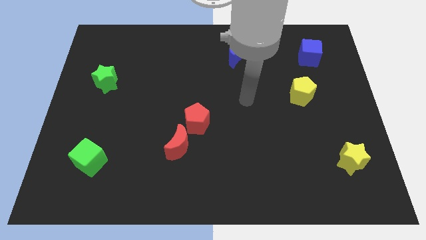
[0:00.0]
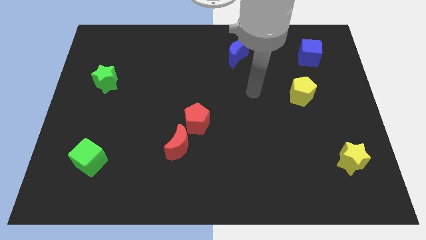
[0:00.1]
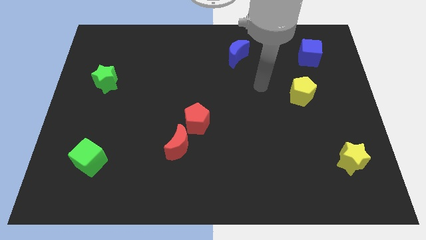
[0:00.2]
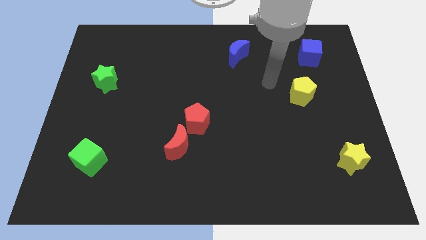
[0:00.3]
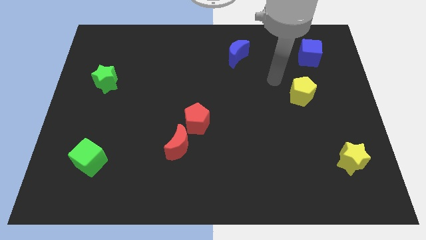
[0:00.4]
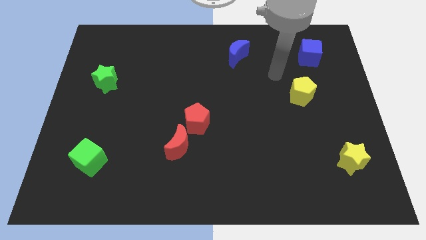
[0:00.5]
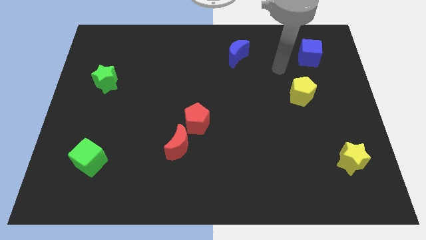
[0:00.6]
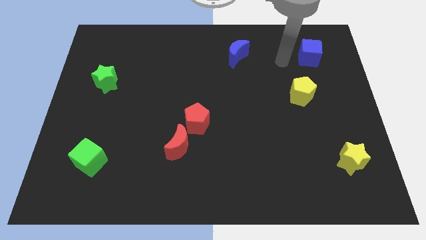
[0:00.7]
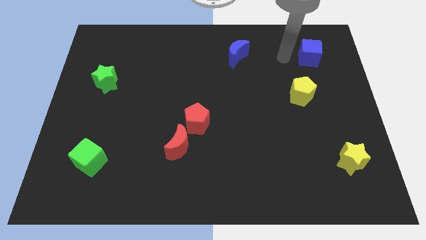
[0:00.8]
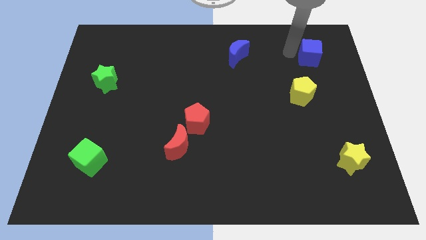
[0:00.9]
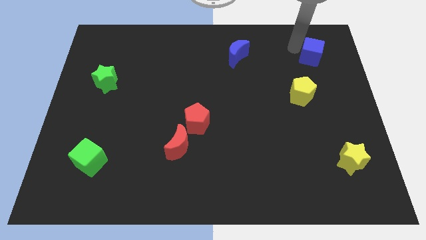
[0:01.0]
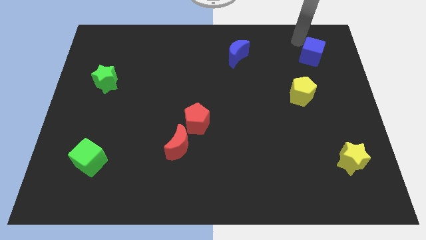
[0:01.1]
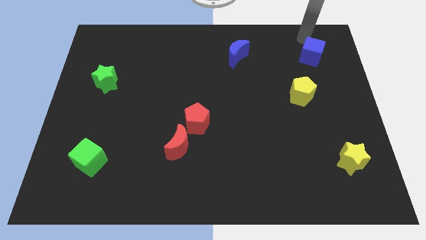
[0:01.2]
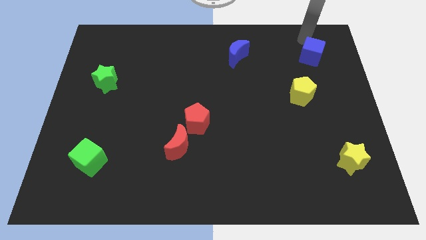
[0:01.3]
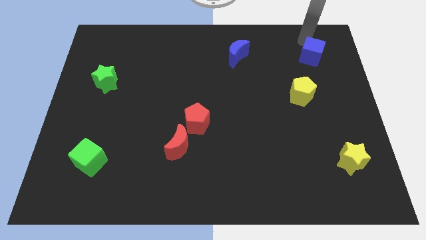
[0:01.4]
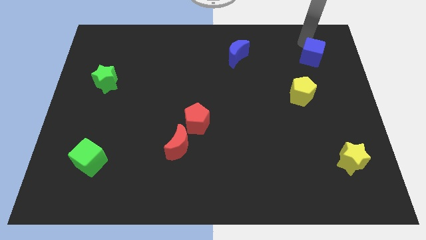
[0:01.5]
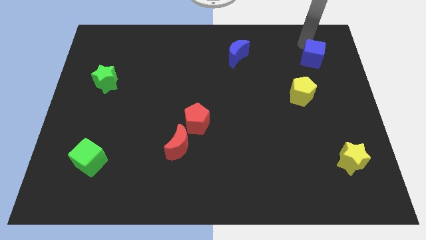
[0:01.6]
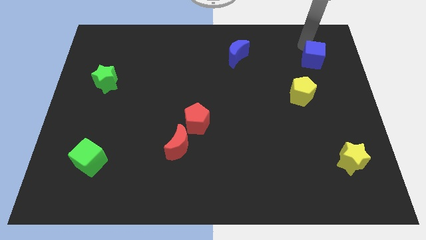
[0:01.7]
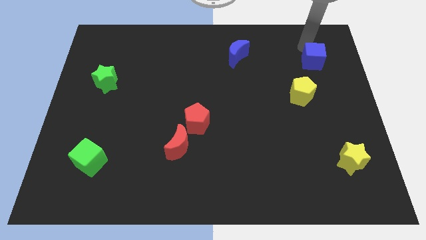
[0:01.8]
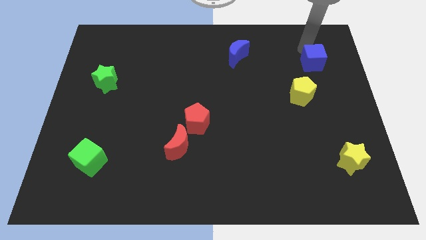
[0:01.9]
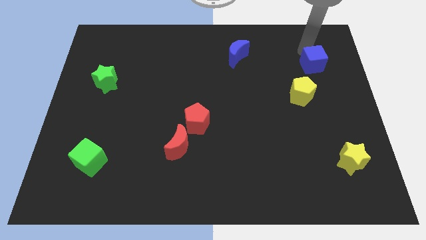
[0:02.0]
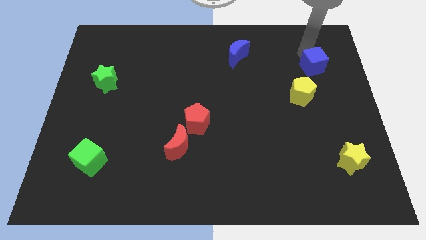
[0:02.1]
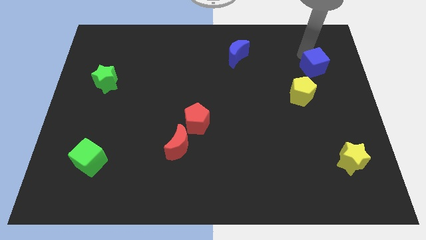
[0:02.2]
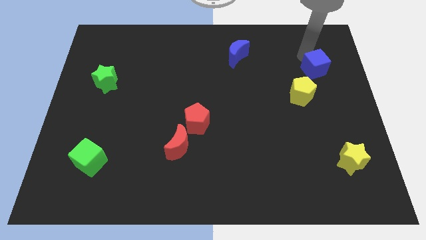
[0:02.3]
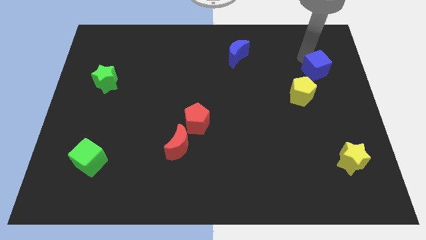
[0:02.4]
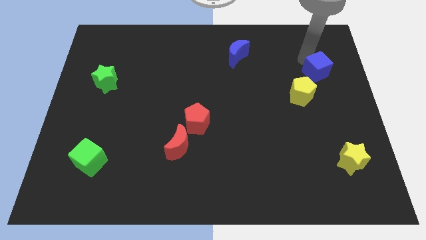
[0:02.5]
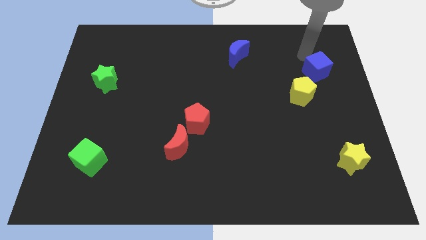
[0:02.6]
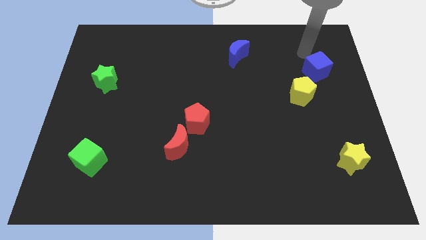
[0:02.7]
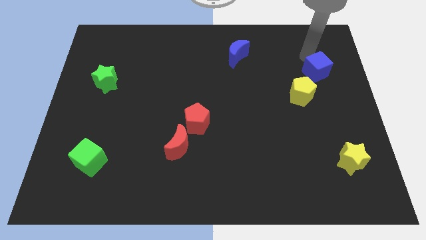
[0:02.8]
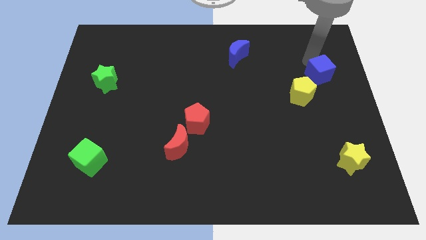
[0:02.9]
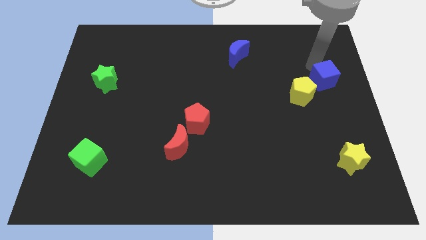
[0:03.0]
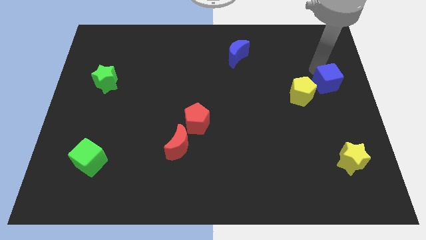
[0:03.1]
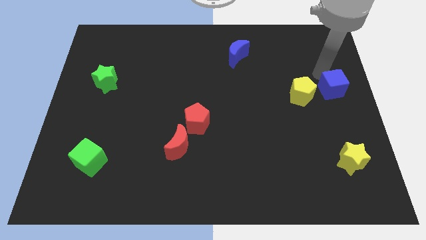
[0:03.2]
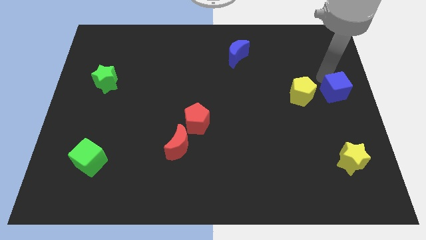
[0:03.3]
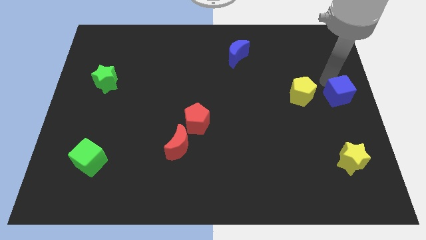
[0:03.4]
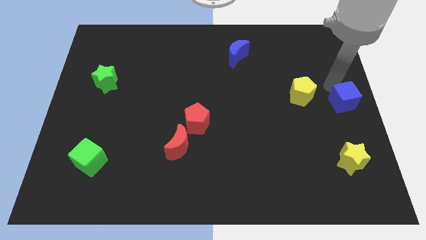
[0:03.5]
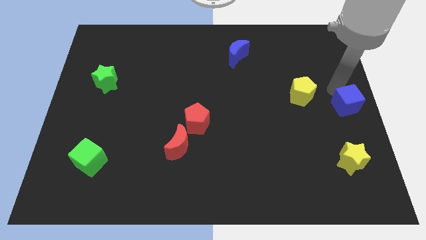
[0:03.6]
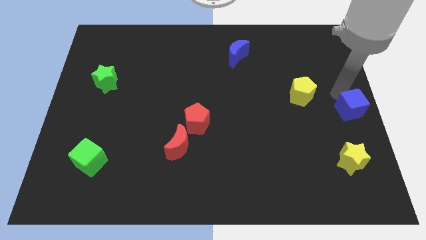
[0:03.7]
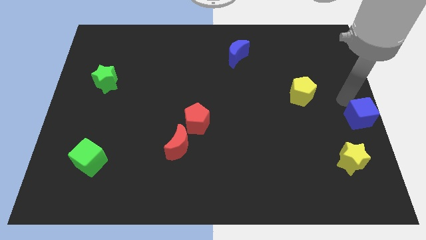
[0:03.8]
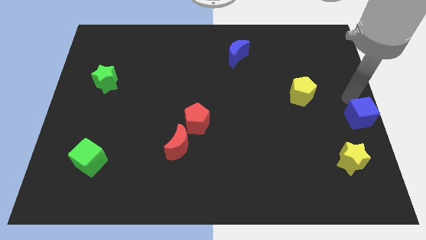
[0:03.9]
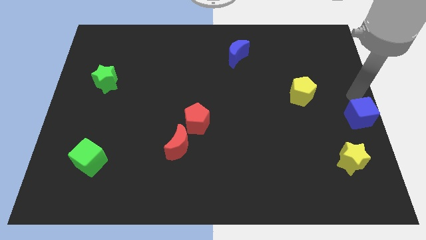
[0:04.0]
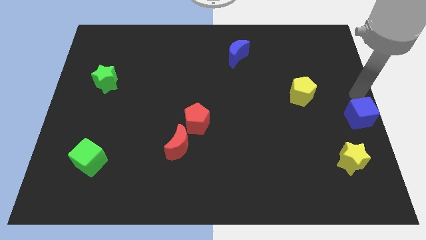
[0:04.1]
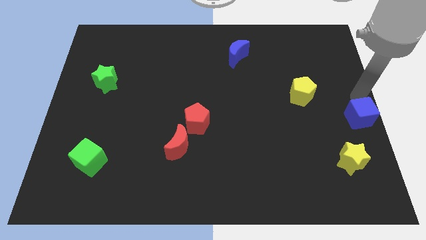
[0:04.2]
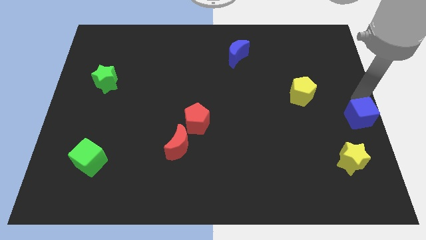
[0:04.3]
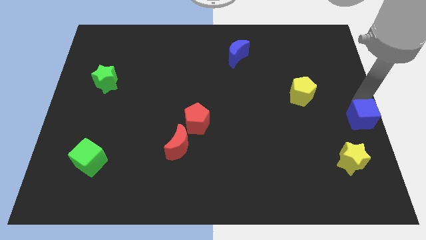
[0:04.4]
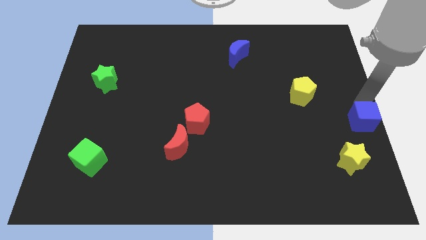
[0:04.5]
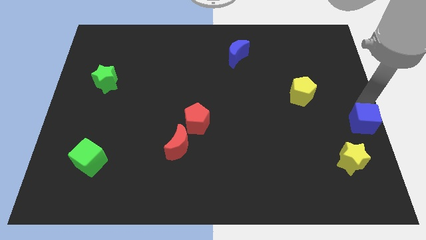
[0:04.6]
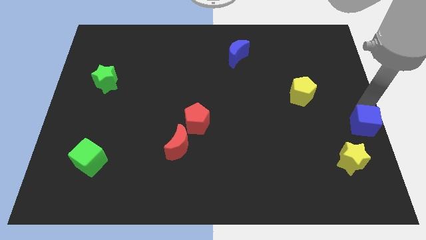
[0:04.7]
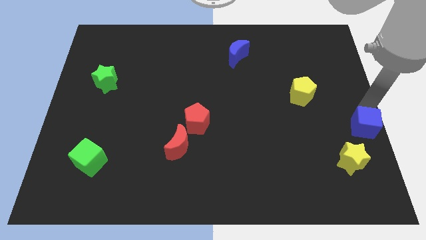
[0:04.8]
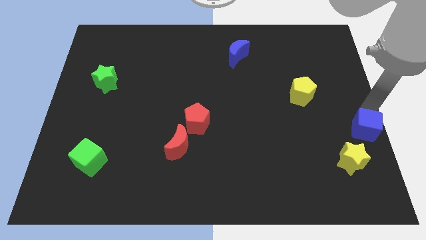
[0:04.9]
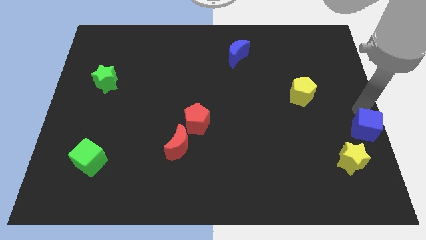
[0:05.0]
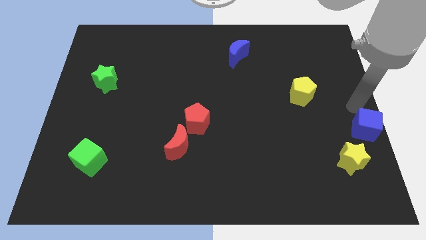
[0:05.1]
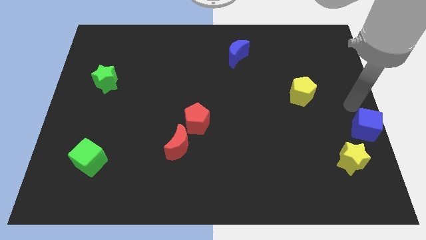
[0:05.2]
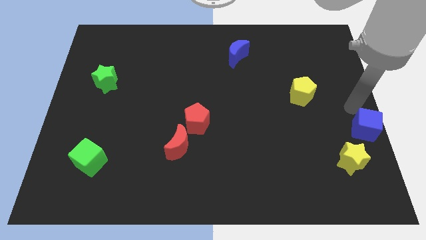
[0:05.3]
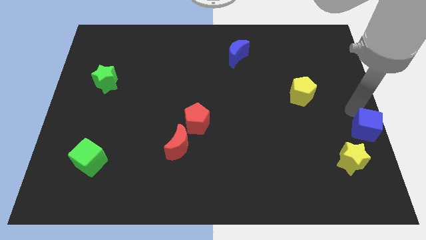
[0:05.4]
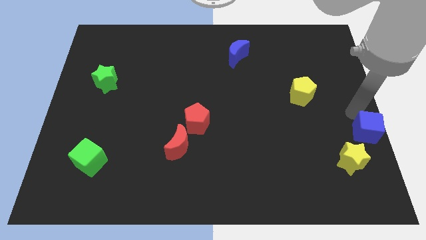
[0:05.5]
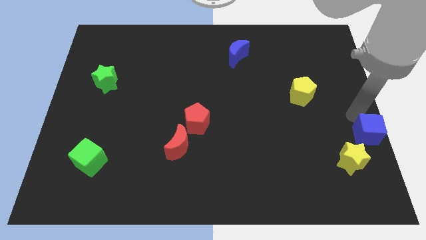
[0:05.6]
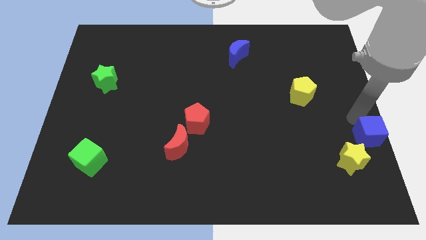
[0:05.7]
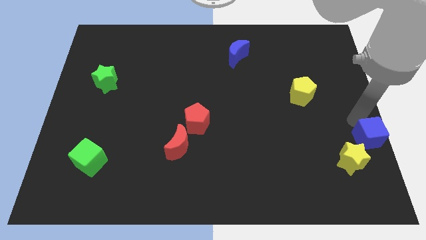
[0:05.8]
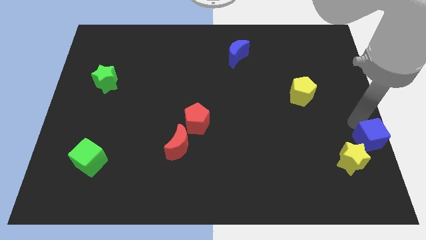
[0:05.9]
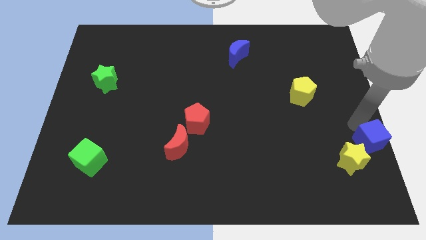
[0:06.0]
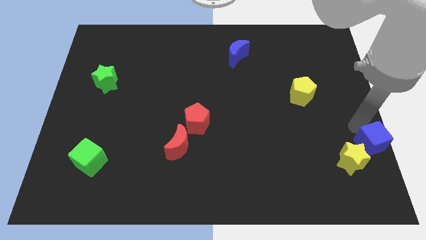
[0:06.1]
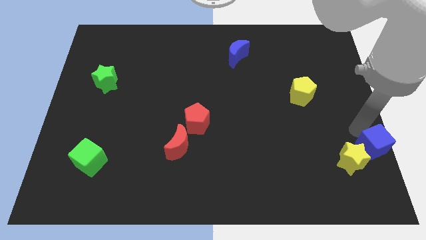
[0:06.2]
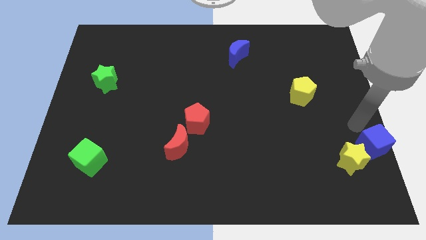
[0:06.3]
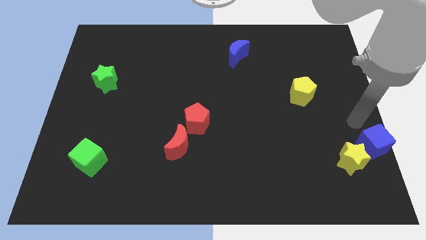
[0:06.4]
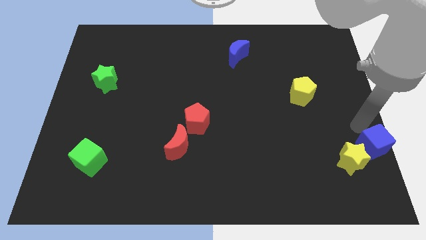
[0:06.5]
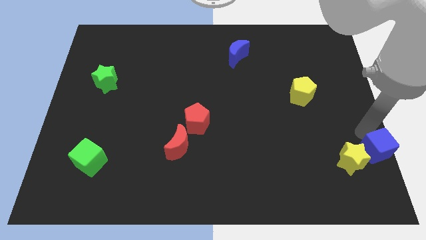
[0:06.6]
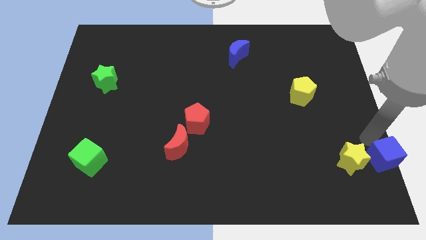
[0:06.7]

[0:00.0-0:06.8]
slide the blue cube to the bottom right
